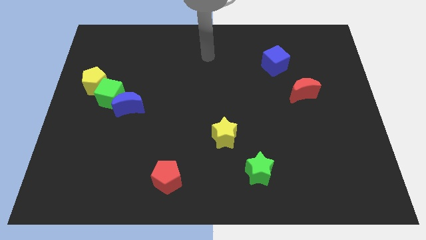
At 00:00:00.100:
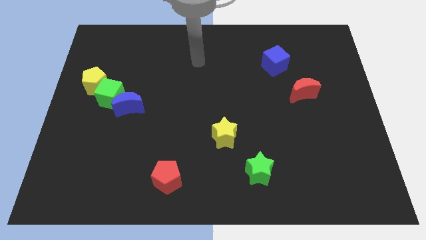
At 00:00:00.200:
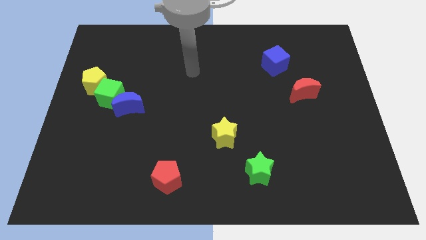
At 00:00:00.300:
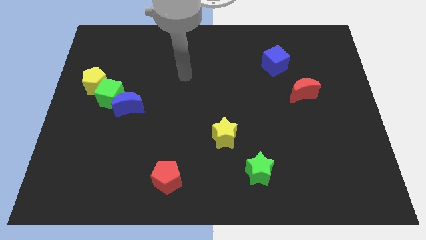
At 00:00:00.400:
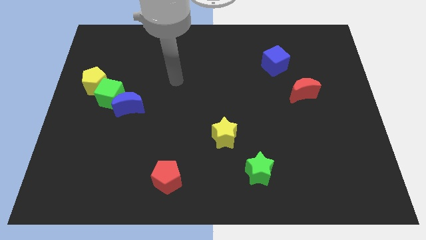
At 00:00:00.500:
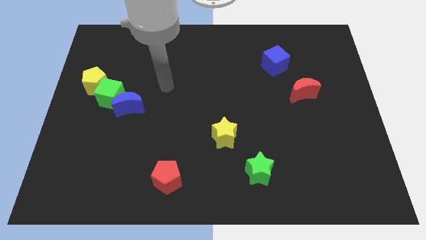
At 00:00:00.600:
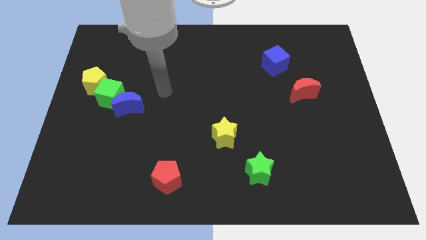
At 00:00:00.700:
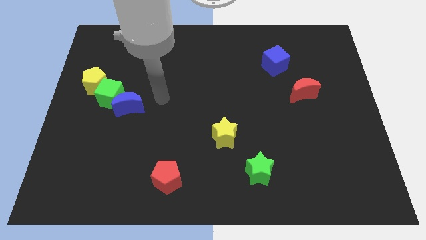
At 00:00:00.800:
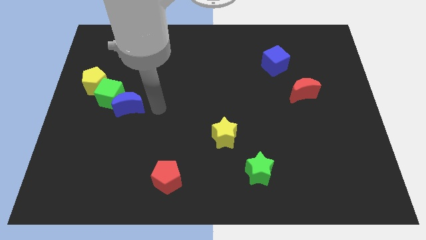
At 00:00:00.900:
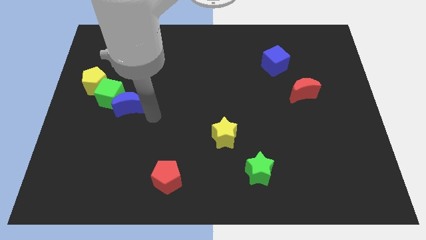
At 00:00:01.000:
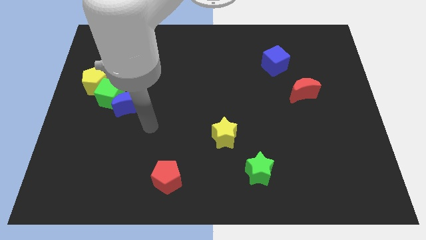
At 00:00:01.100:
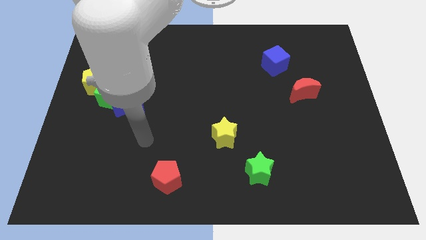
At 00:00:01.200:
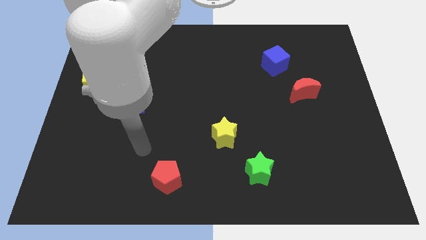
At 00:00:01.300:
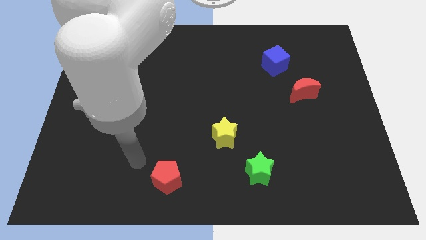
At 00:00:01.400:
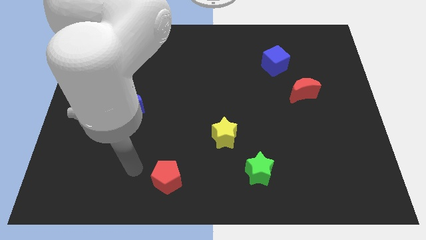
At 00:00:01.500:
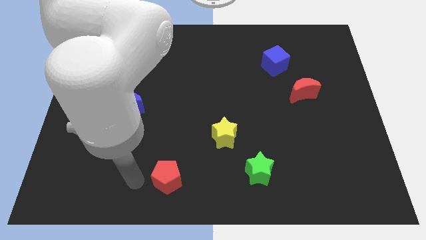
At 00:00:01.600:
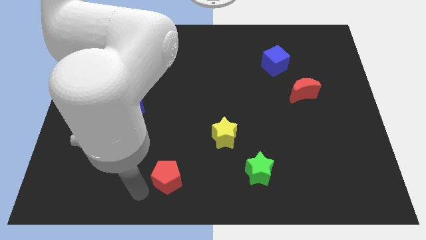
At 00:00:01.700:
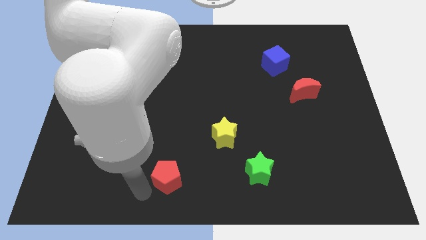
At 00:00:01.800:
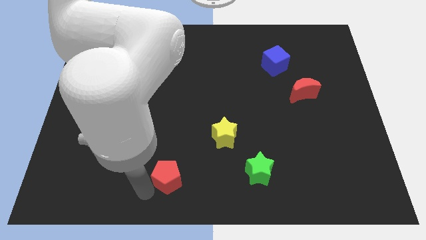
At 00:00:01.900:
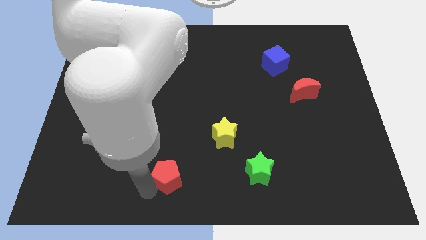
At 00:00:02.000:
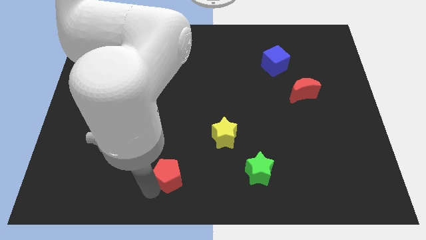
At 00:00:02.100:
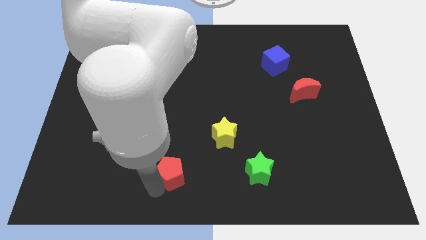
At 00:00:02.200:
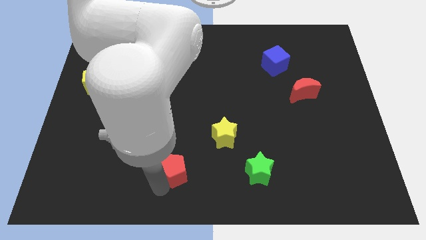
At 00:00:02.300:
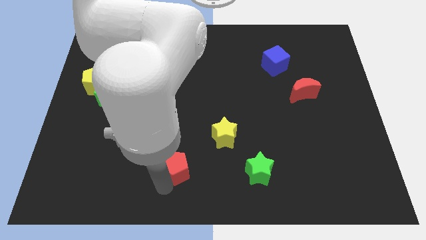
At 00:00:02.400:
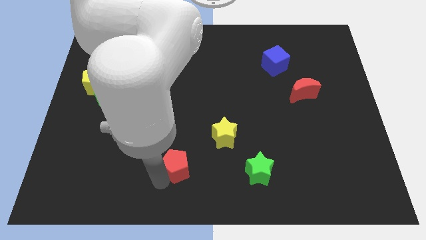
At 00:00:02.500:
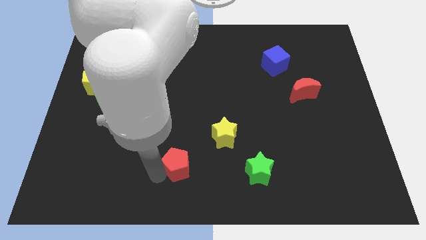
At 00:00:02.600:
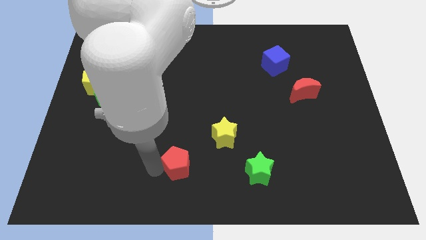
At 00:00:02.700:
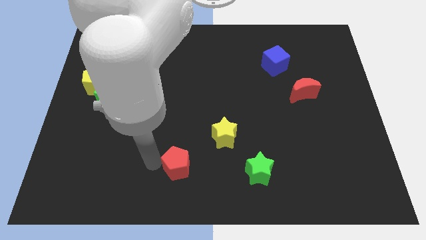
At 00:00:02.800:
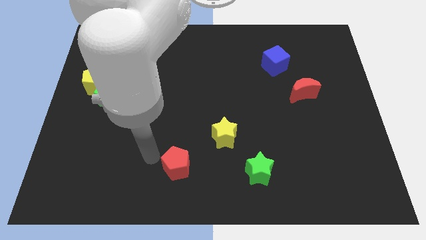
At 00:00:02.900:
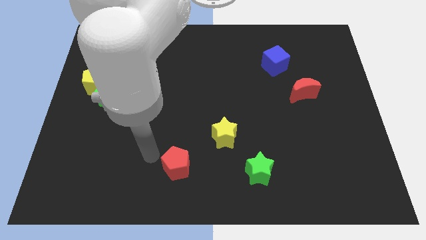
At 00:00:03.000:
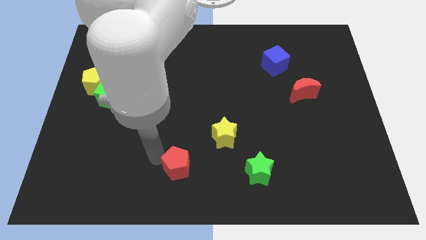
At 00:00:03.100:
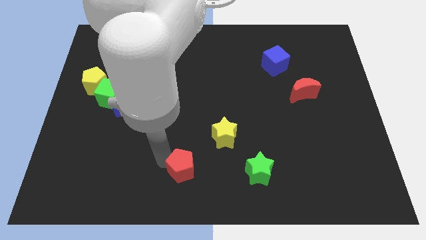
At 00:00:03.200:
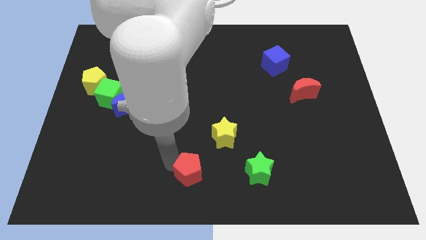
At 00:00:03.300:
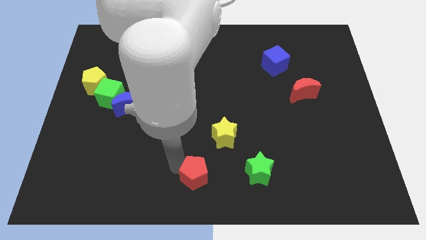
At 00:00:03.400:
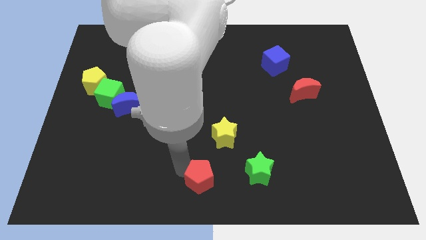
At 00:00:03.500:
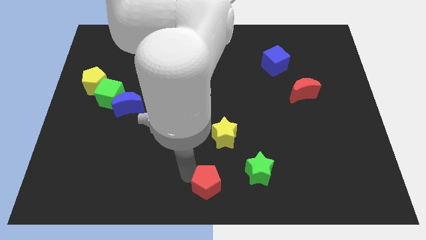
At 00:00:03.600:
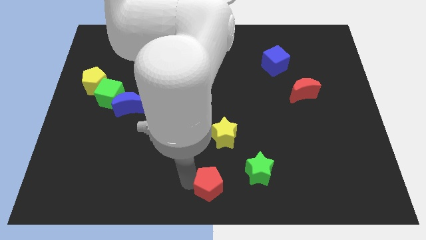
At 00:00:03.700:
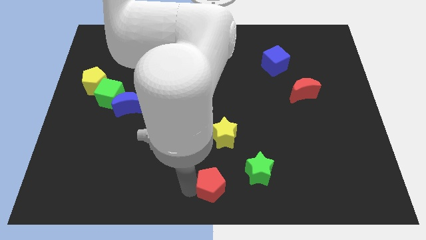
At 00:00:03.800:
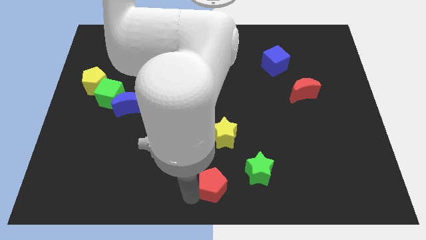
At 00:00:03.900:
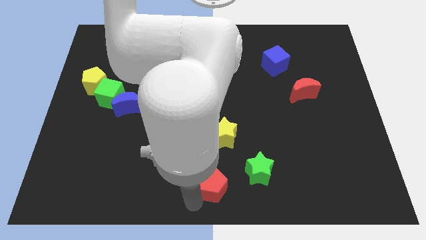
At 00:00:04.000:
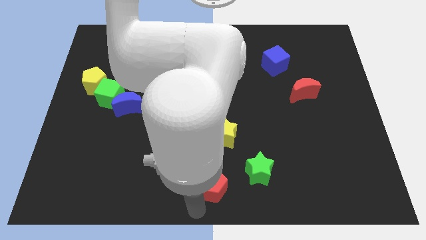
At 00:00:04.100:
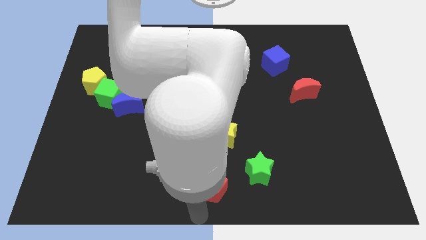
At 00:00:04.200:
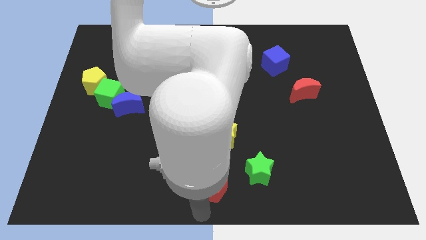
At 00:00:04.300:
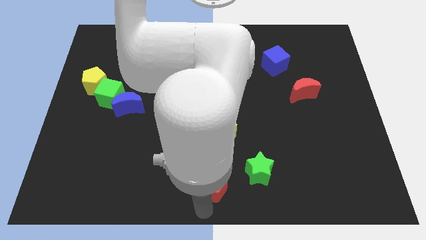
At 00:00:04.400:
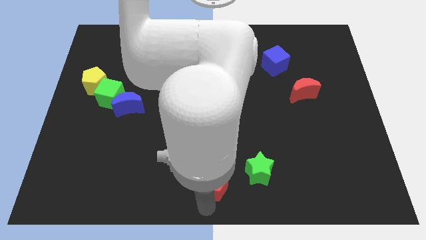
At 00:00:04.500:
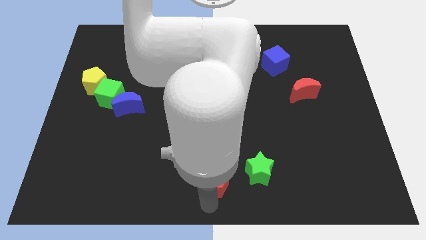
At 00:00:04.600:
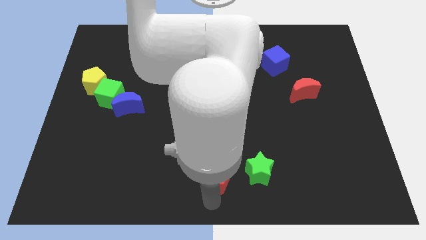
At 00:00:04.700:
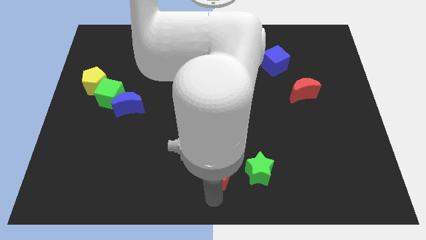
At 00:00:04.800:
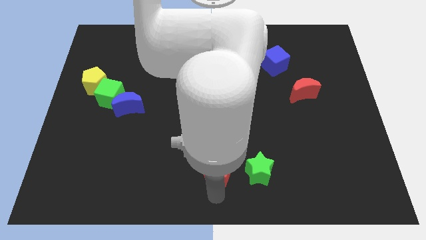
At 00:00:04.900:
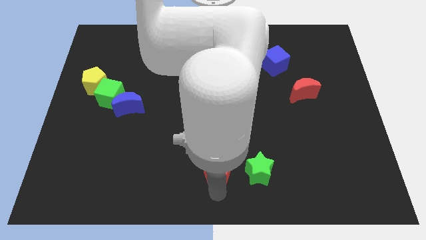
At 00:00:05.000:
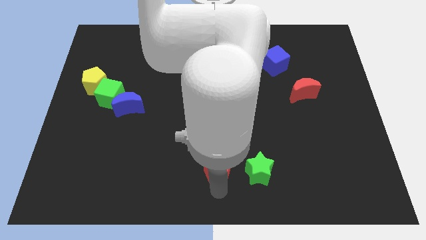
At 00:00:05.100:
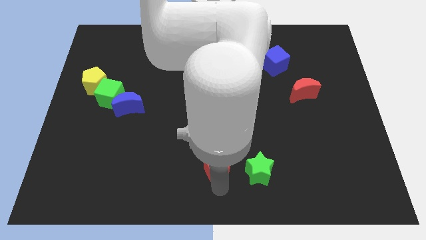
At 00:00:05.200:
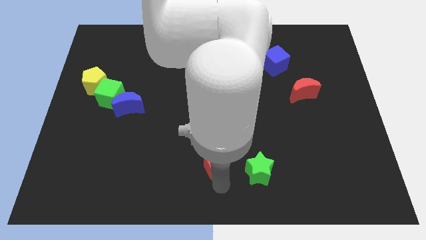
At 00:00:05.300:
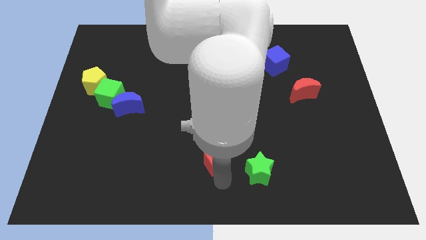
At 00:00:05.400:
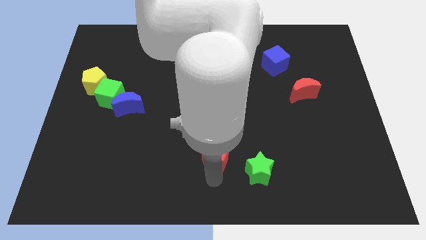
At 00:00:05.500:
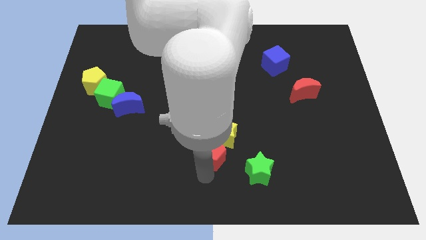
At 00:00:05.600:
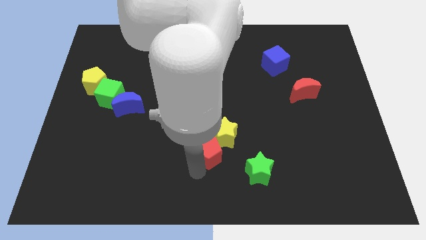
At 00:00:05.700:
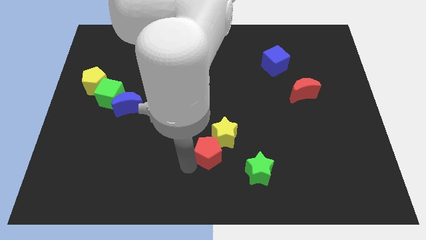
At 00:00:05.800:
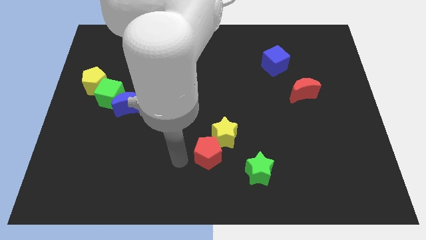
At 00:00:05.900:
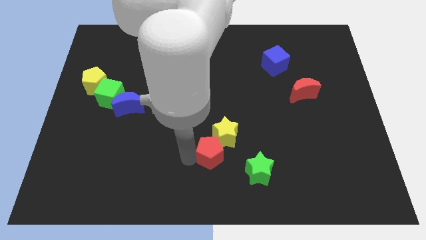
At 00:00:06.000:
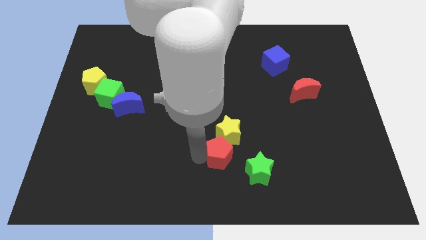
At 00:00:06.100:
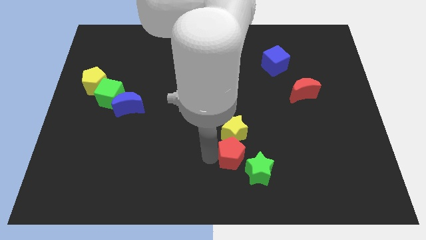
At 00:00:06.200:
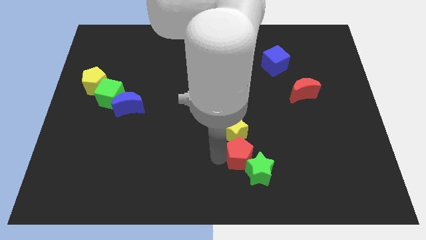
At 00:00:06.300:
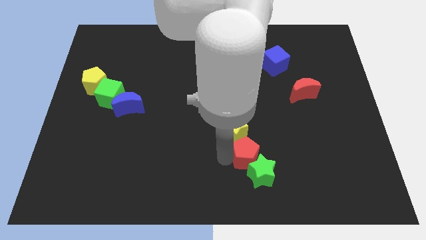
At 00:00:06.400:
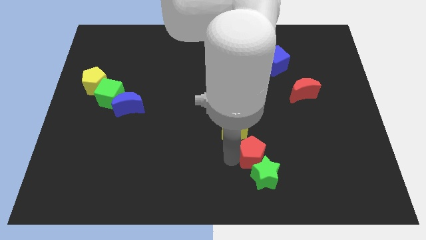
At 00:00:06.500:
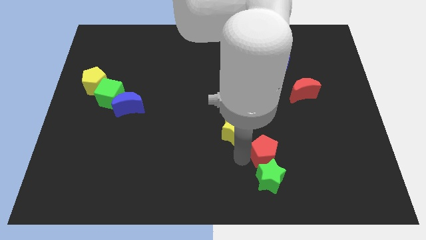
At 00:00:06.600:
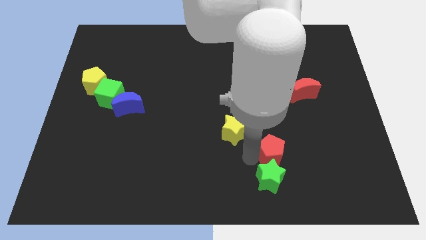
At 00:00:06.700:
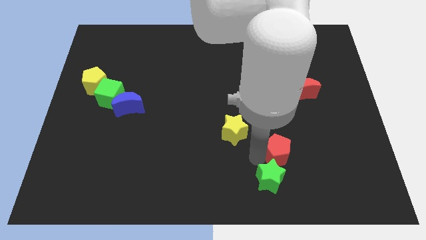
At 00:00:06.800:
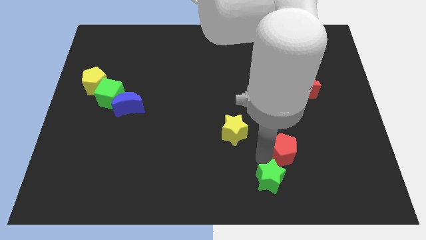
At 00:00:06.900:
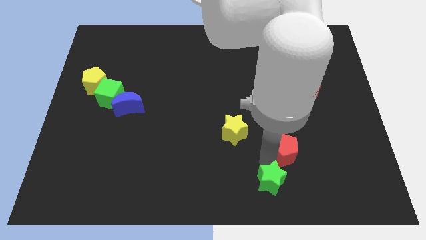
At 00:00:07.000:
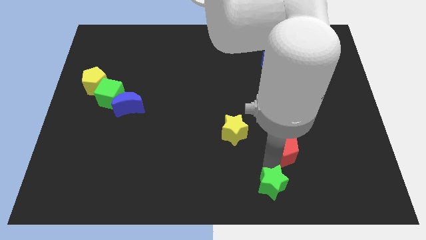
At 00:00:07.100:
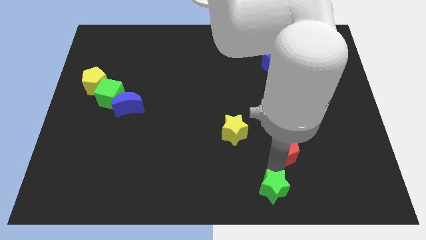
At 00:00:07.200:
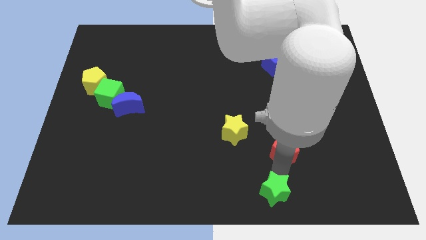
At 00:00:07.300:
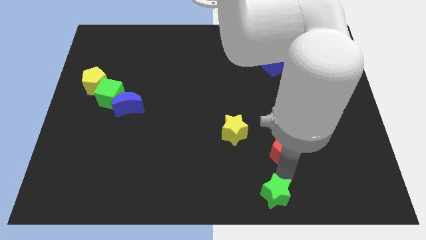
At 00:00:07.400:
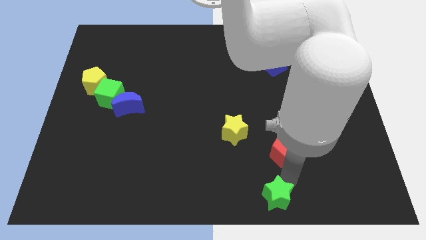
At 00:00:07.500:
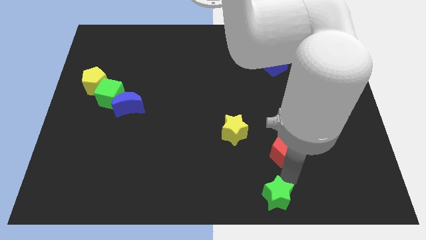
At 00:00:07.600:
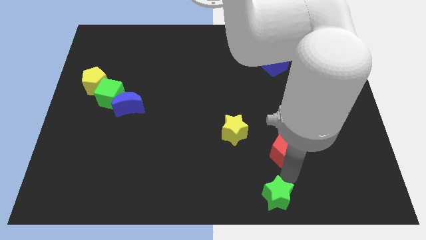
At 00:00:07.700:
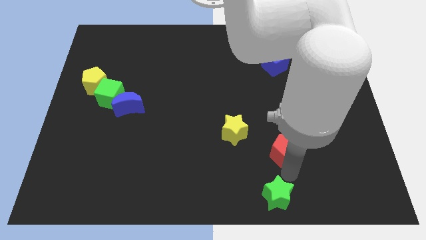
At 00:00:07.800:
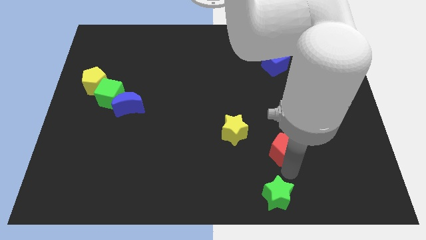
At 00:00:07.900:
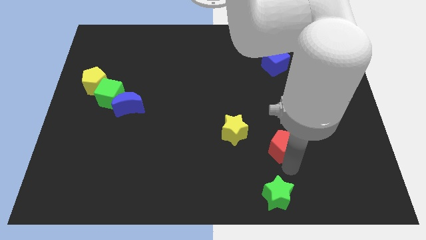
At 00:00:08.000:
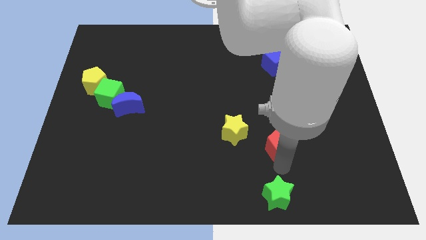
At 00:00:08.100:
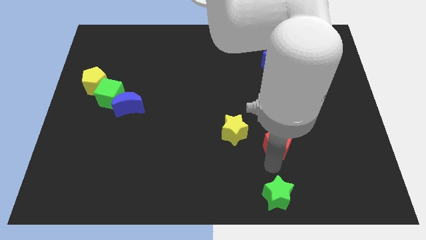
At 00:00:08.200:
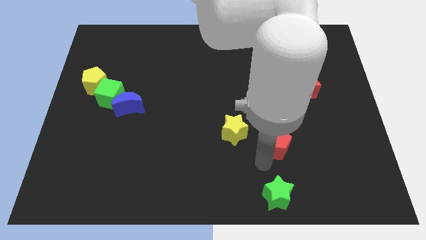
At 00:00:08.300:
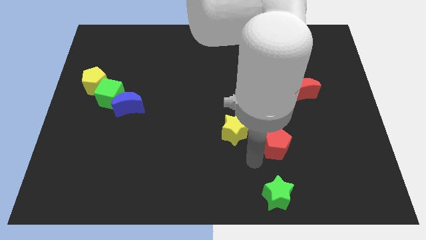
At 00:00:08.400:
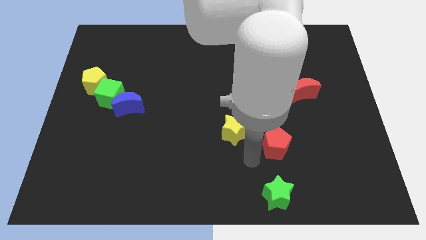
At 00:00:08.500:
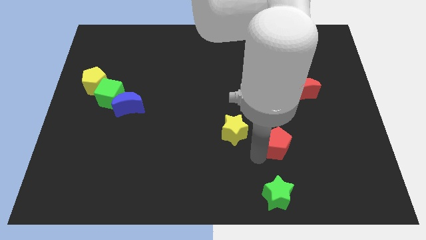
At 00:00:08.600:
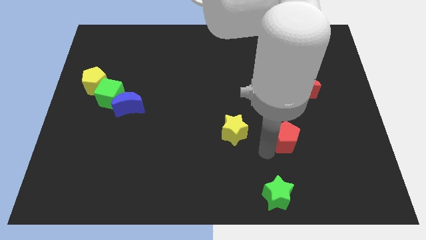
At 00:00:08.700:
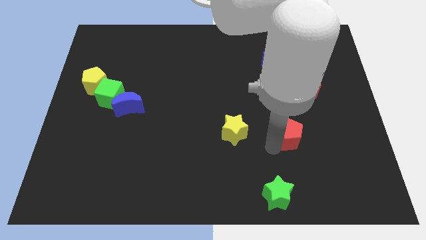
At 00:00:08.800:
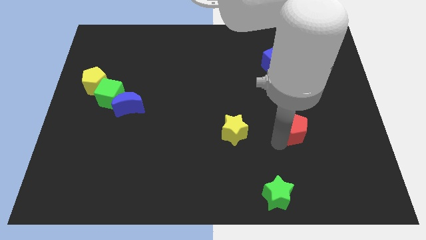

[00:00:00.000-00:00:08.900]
slide the red pentagon to the bottom of the red moon
